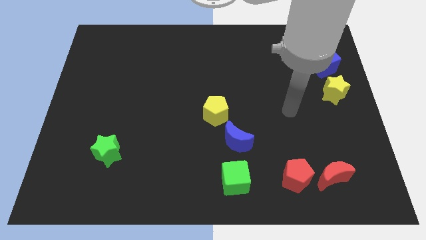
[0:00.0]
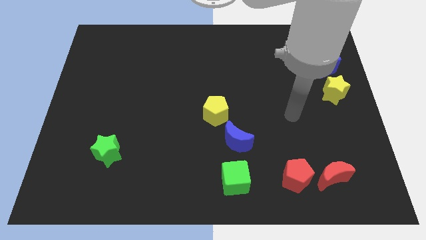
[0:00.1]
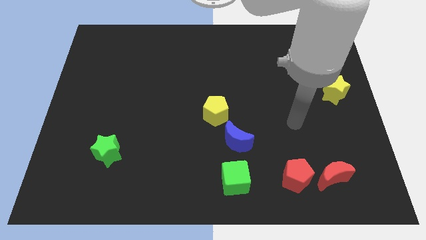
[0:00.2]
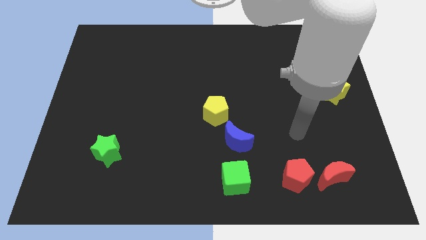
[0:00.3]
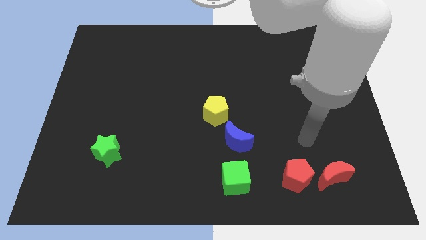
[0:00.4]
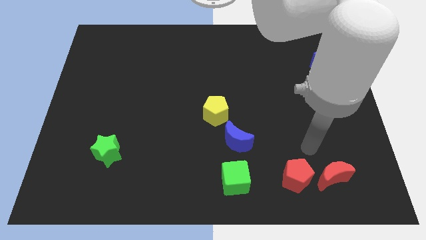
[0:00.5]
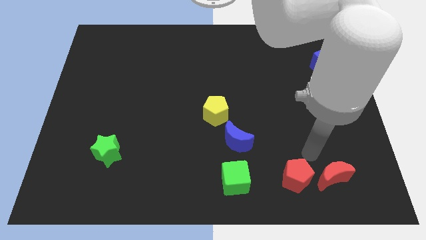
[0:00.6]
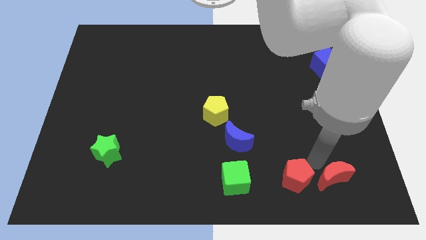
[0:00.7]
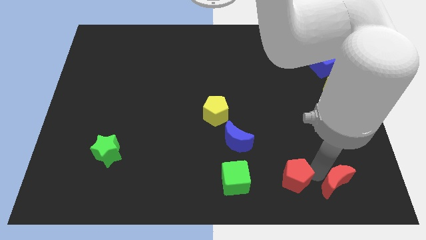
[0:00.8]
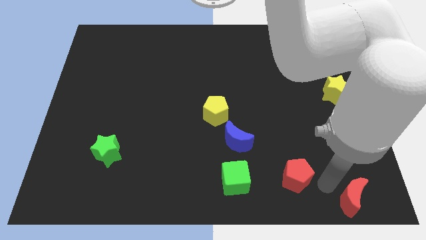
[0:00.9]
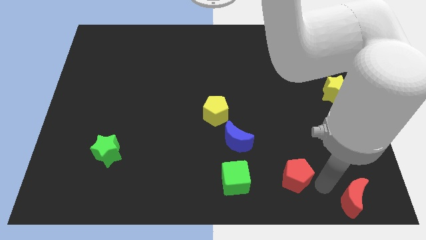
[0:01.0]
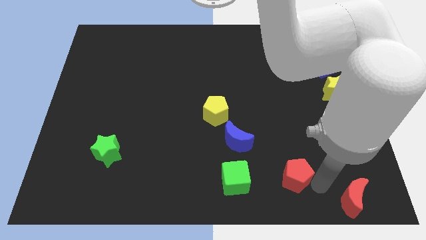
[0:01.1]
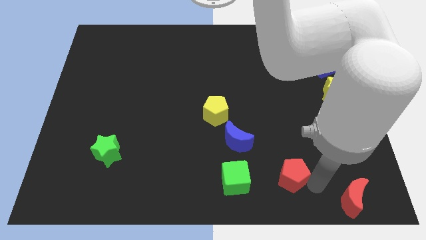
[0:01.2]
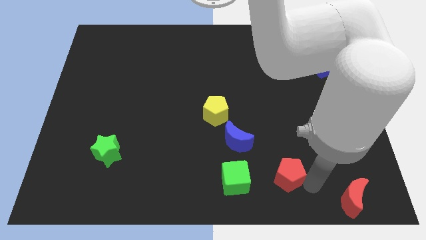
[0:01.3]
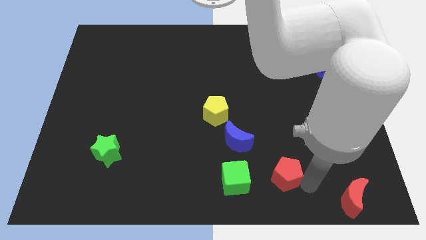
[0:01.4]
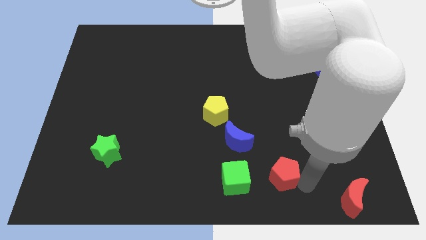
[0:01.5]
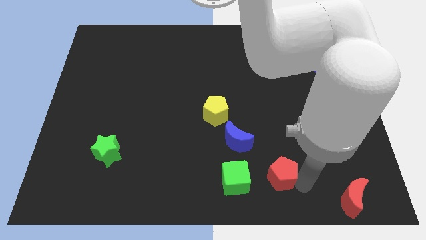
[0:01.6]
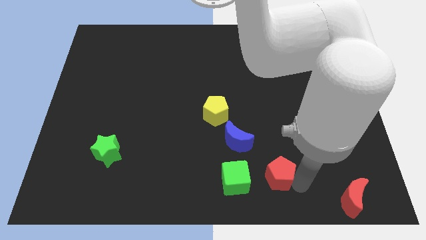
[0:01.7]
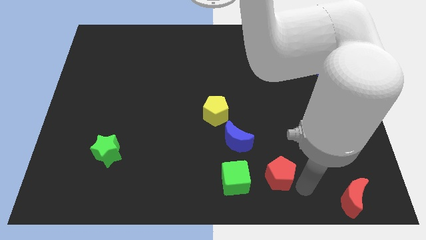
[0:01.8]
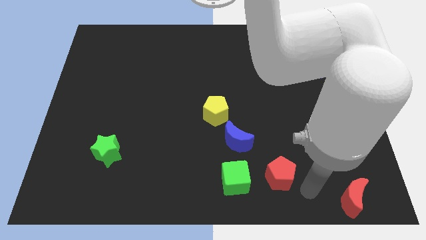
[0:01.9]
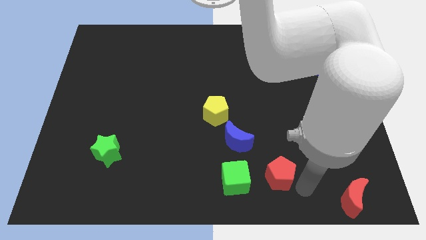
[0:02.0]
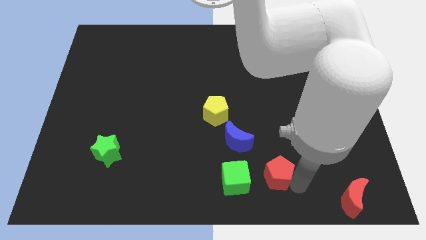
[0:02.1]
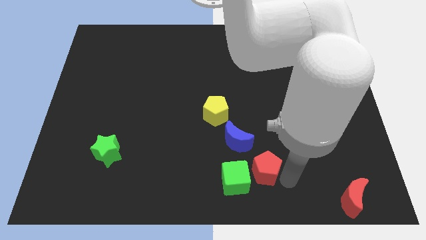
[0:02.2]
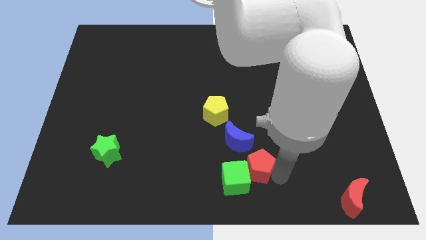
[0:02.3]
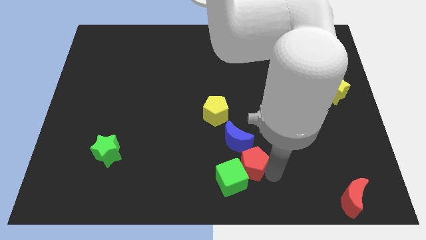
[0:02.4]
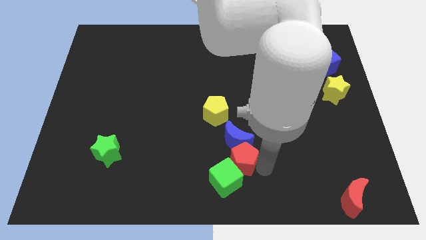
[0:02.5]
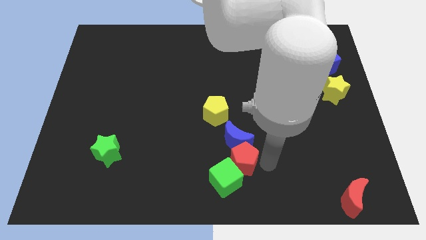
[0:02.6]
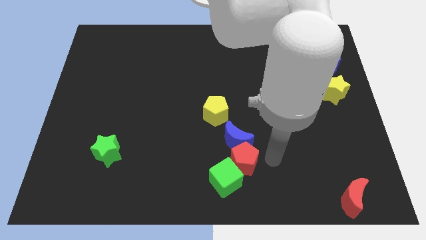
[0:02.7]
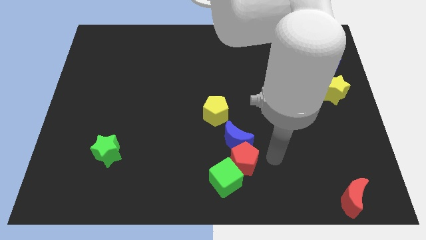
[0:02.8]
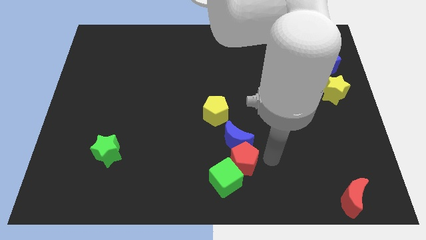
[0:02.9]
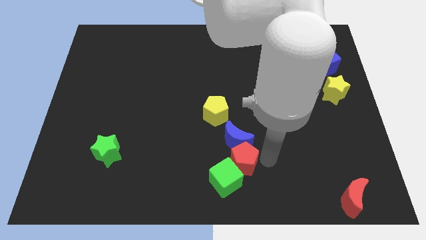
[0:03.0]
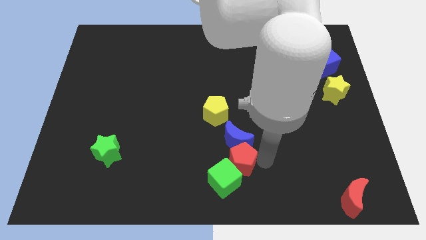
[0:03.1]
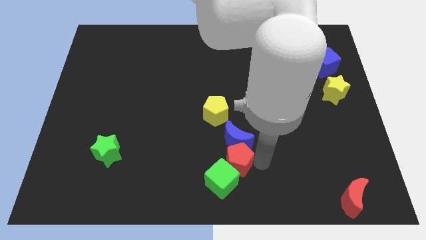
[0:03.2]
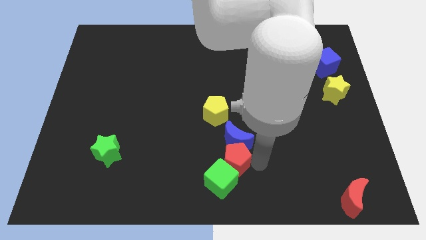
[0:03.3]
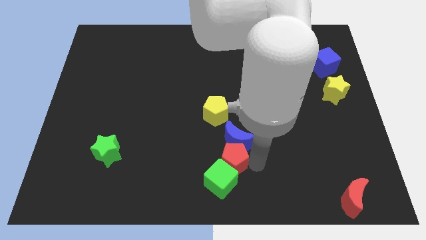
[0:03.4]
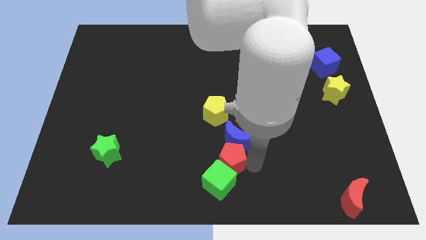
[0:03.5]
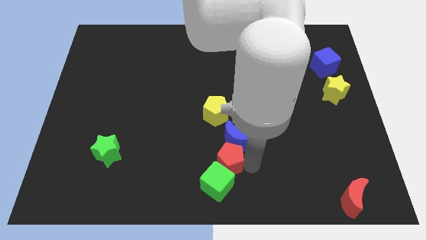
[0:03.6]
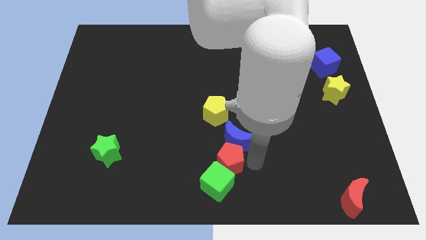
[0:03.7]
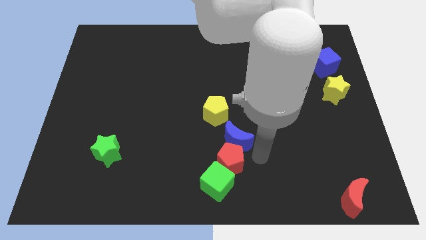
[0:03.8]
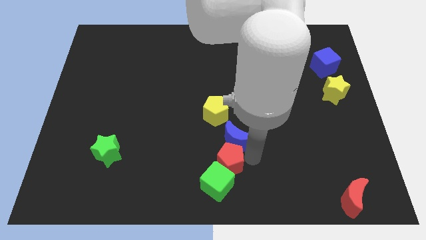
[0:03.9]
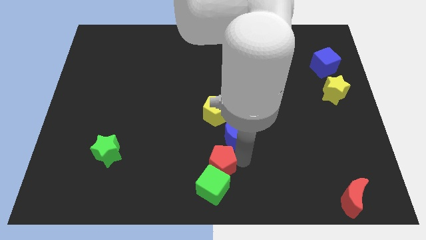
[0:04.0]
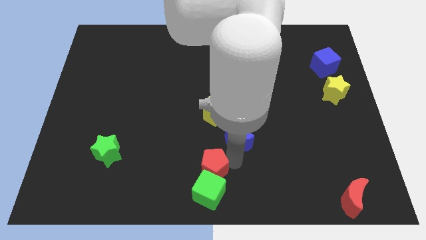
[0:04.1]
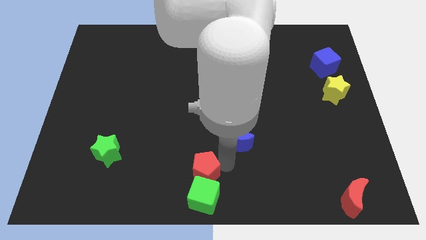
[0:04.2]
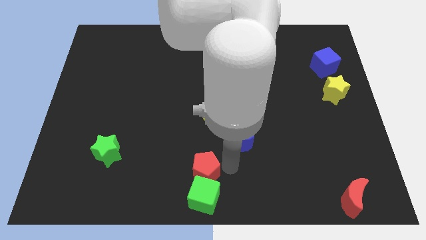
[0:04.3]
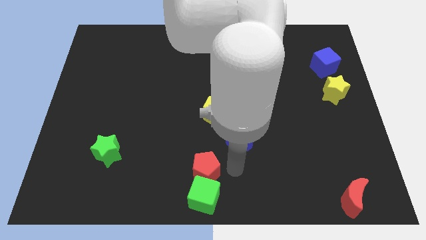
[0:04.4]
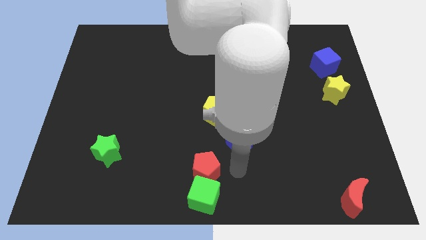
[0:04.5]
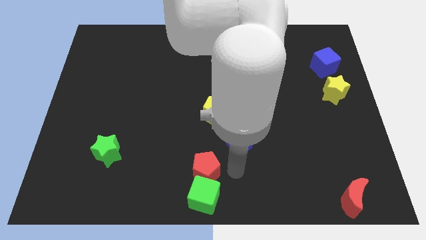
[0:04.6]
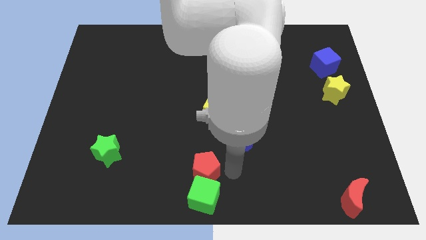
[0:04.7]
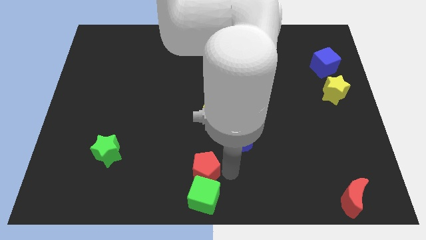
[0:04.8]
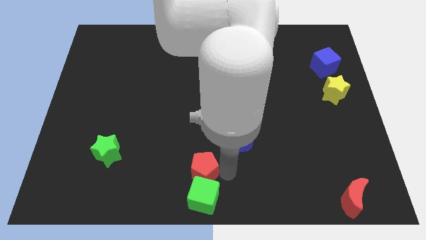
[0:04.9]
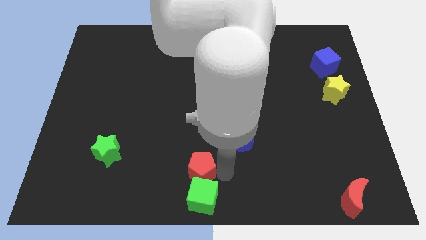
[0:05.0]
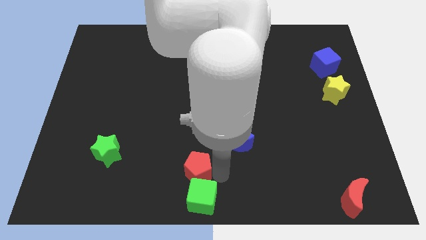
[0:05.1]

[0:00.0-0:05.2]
push the red pentagon to the left

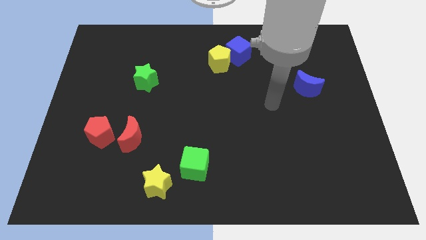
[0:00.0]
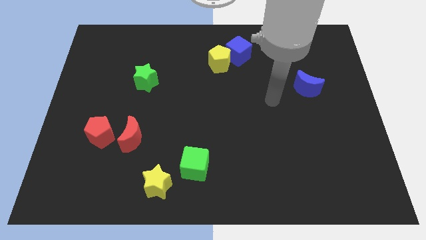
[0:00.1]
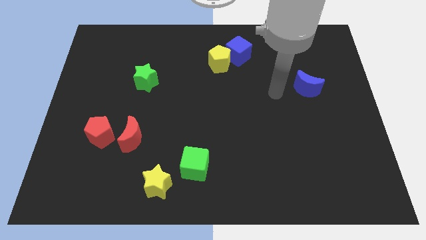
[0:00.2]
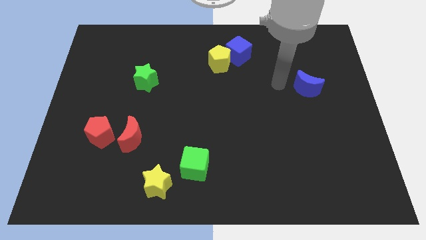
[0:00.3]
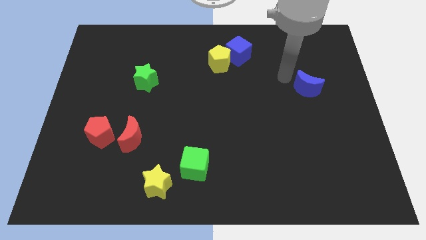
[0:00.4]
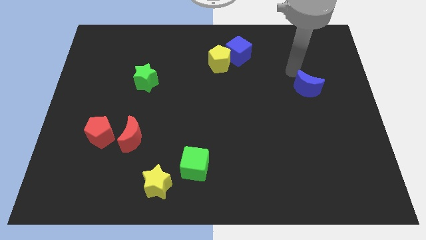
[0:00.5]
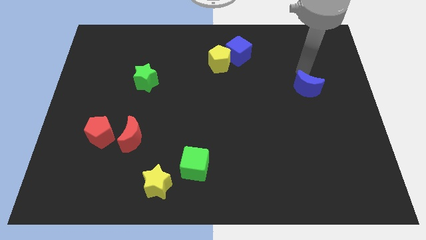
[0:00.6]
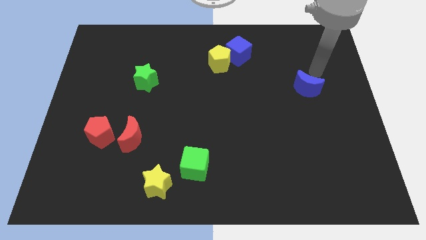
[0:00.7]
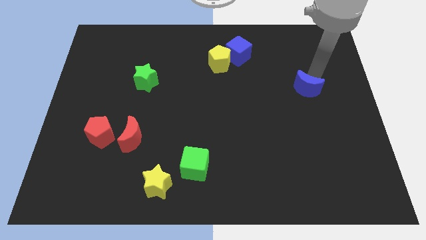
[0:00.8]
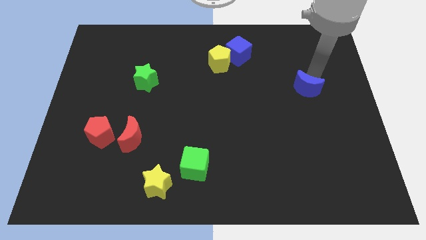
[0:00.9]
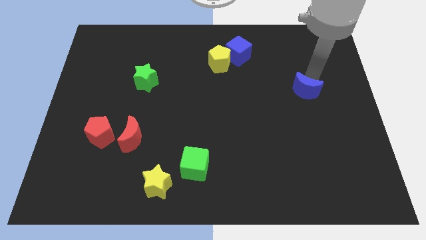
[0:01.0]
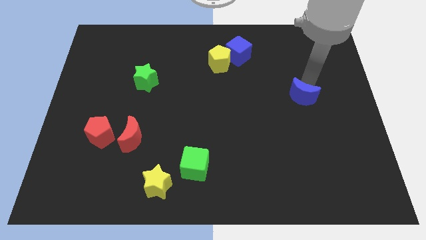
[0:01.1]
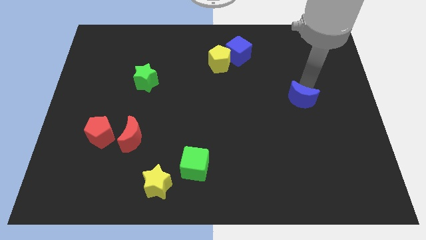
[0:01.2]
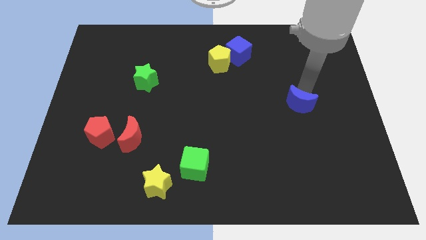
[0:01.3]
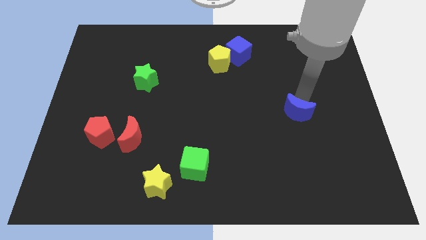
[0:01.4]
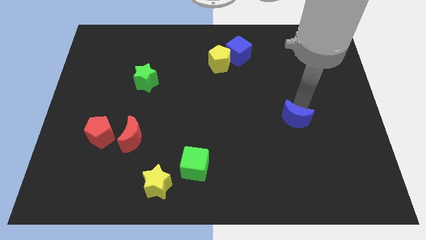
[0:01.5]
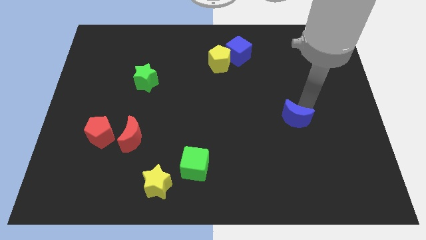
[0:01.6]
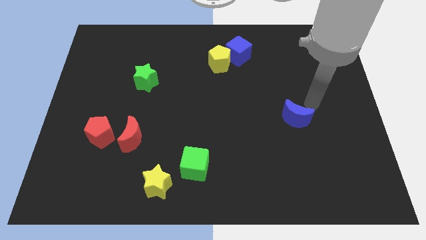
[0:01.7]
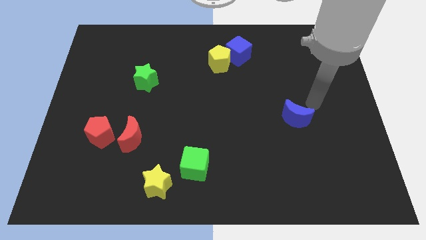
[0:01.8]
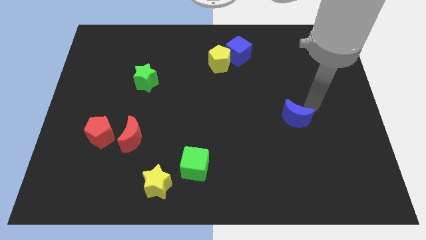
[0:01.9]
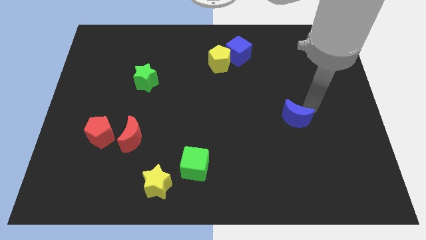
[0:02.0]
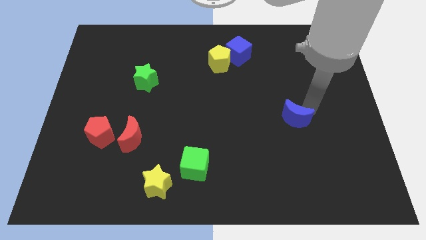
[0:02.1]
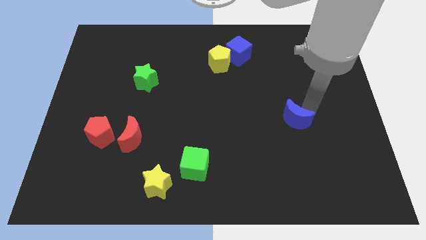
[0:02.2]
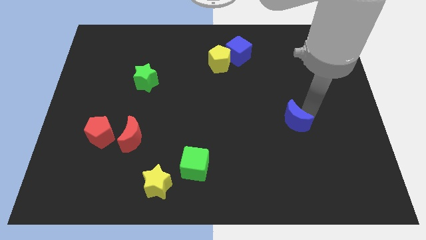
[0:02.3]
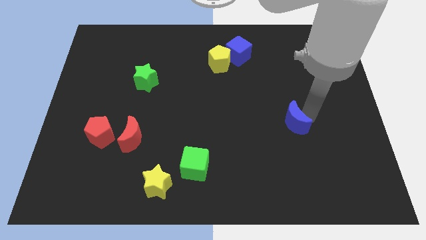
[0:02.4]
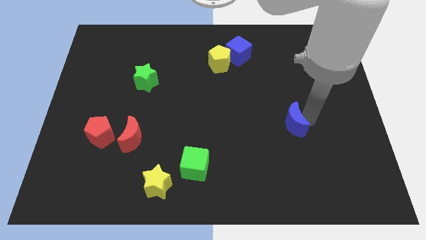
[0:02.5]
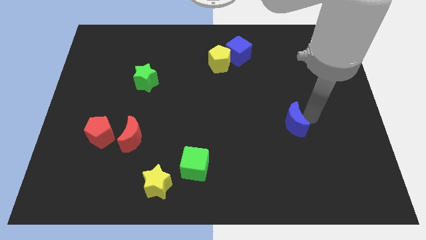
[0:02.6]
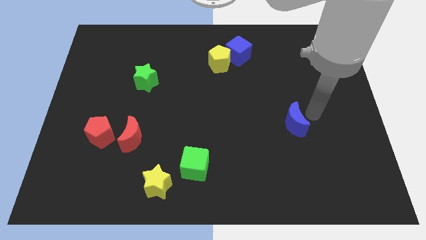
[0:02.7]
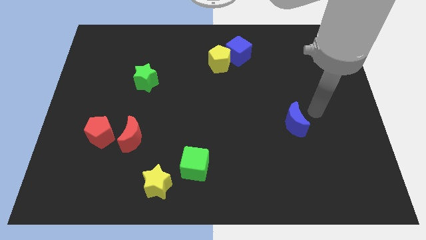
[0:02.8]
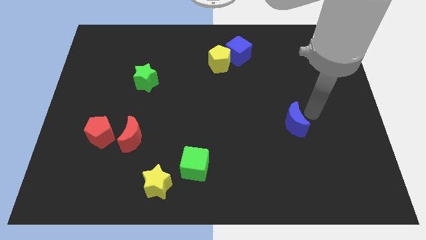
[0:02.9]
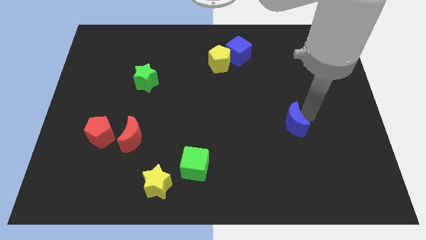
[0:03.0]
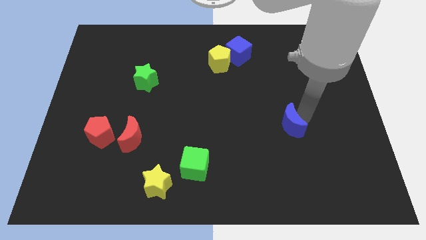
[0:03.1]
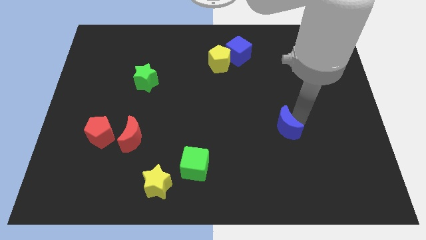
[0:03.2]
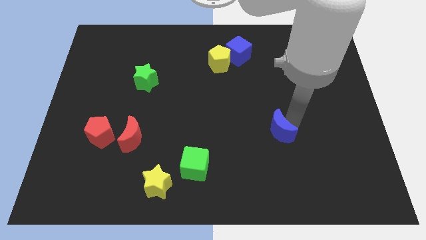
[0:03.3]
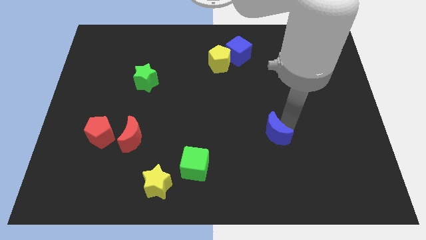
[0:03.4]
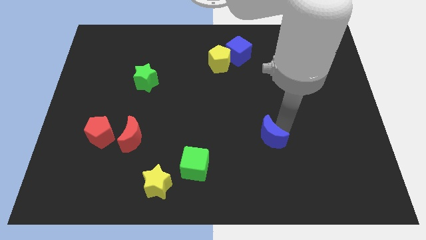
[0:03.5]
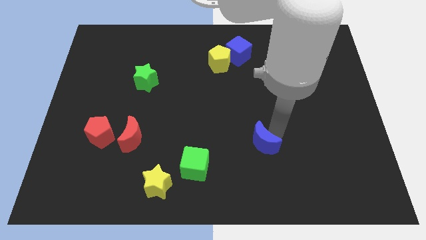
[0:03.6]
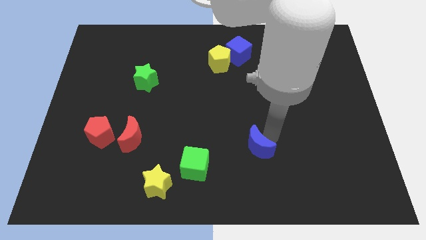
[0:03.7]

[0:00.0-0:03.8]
move the blue moon downwards and left
